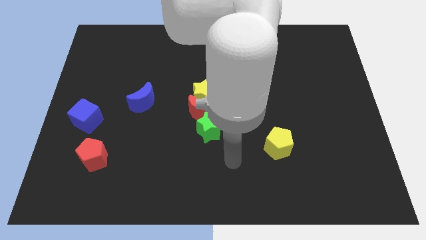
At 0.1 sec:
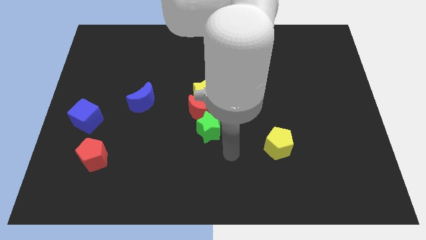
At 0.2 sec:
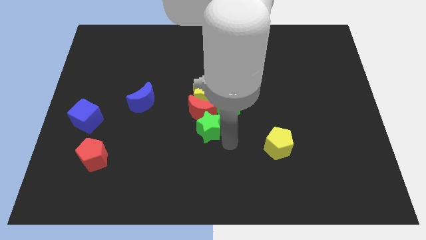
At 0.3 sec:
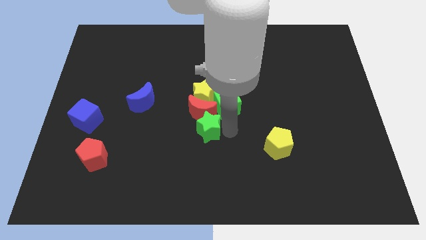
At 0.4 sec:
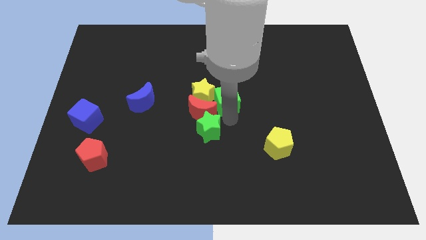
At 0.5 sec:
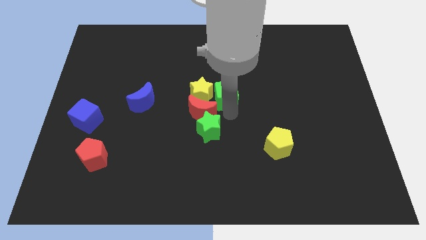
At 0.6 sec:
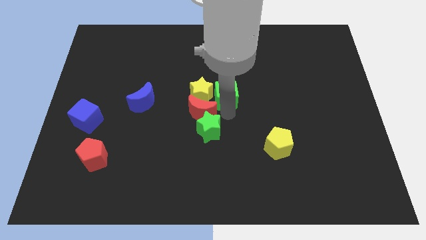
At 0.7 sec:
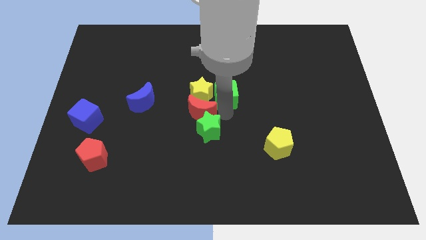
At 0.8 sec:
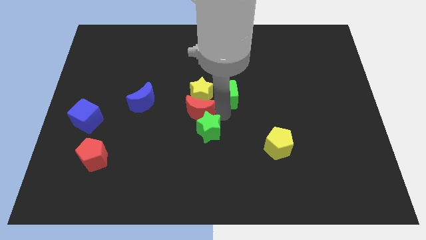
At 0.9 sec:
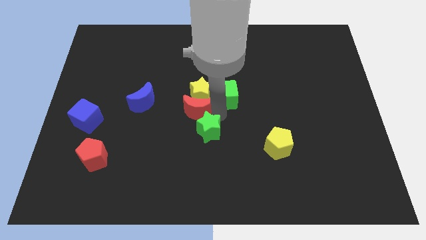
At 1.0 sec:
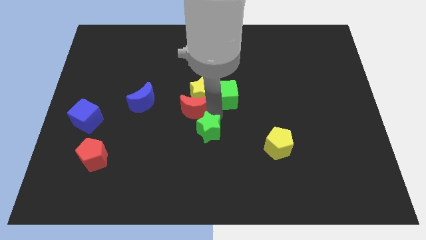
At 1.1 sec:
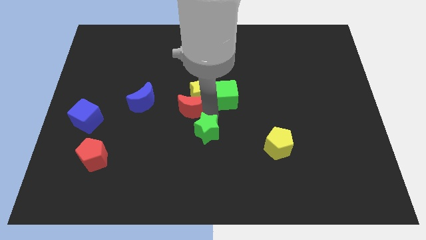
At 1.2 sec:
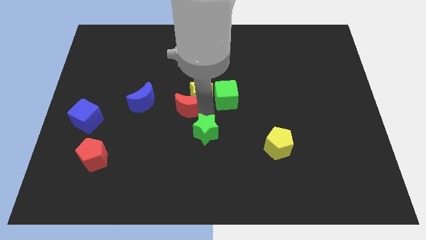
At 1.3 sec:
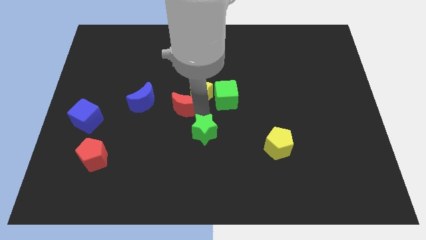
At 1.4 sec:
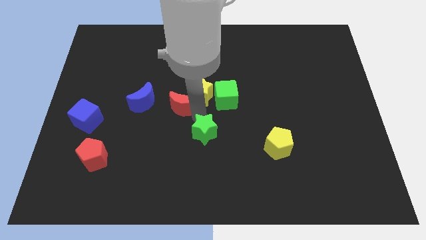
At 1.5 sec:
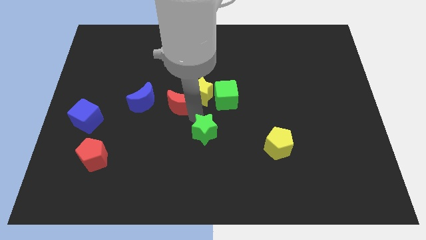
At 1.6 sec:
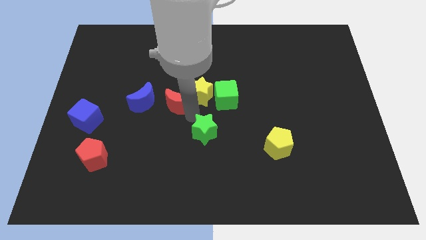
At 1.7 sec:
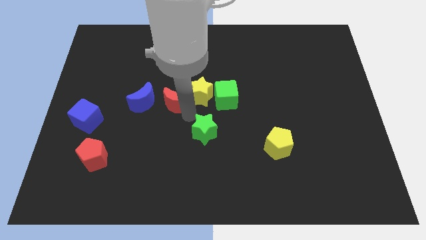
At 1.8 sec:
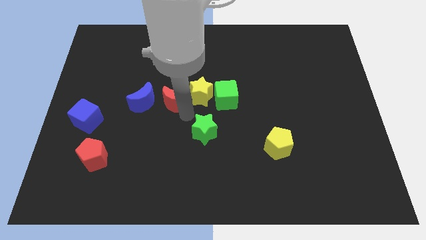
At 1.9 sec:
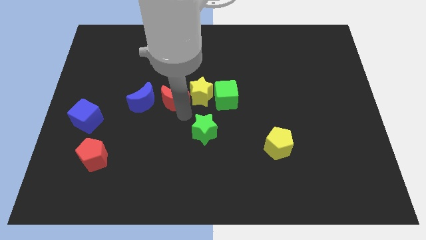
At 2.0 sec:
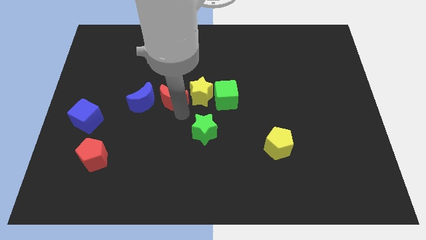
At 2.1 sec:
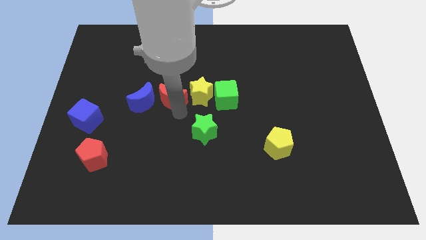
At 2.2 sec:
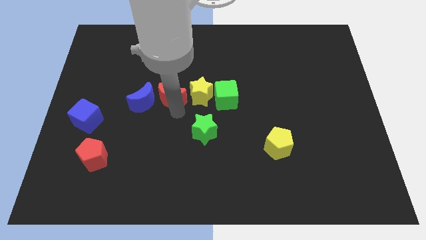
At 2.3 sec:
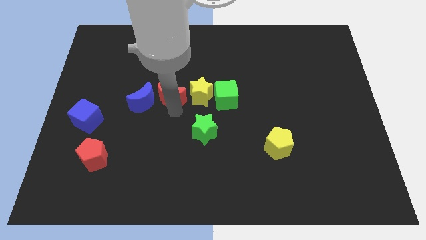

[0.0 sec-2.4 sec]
separate the red moon from the group

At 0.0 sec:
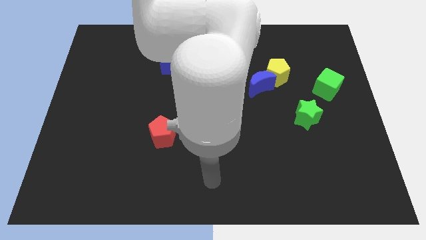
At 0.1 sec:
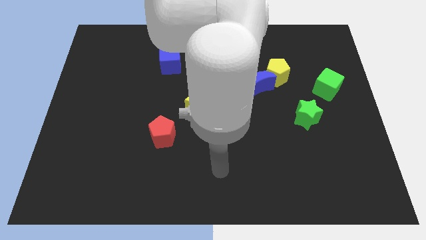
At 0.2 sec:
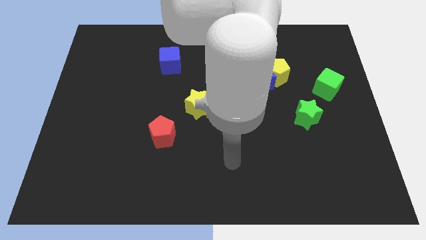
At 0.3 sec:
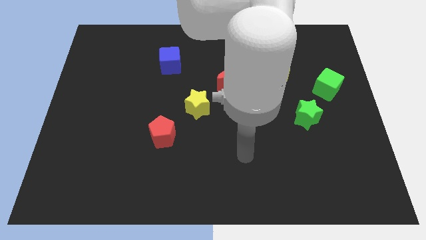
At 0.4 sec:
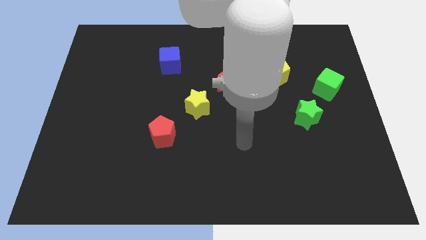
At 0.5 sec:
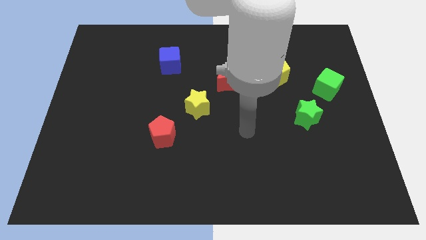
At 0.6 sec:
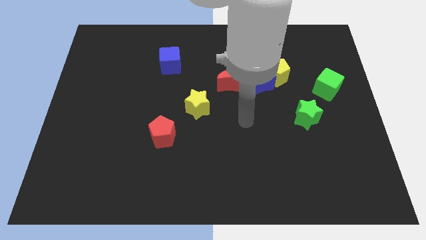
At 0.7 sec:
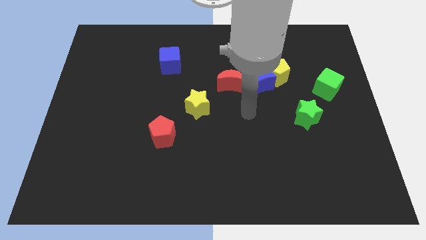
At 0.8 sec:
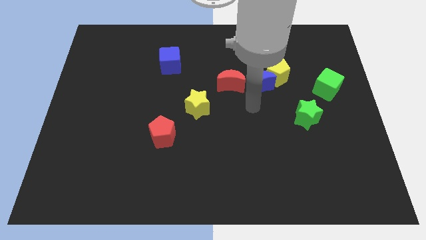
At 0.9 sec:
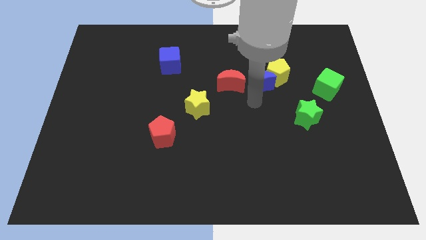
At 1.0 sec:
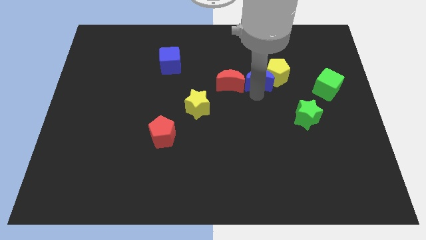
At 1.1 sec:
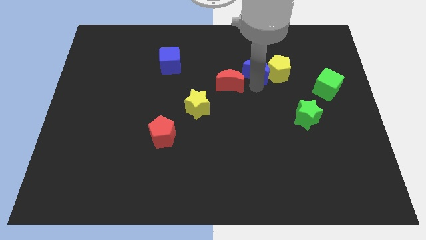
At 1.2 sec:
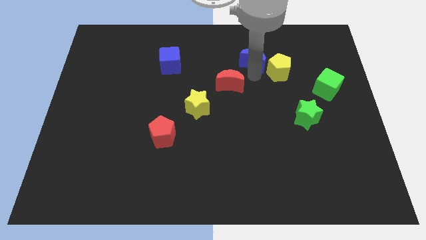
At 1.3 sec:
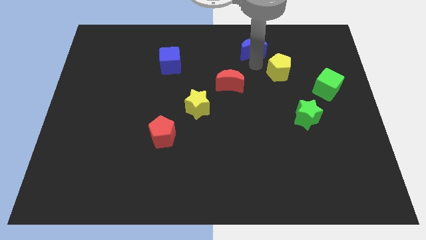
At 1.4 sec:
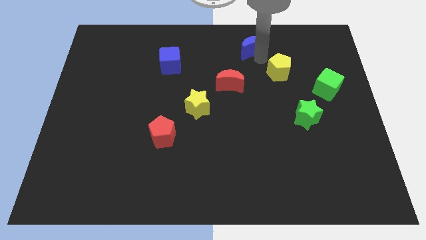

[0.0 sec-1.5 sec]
move the yellow pentagon away from the blue moon

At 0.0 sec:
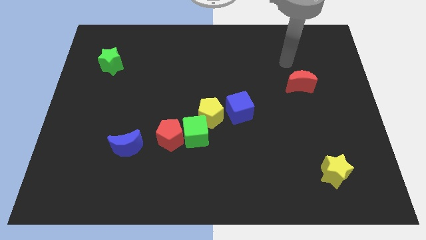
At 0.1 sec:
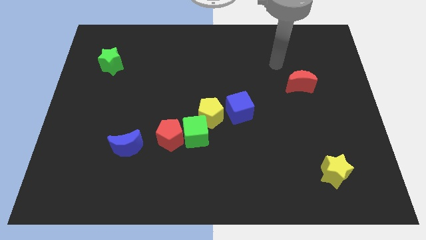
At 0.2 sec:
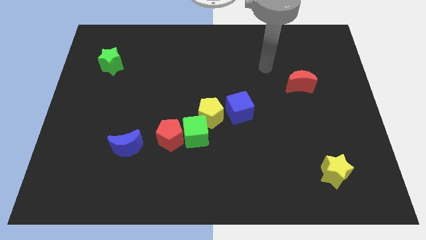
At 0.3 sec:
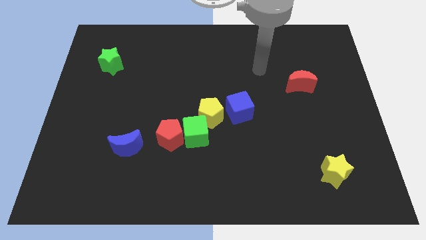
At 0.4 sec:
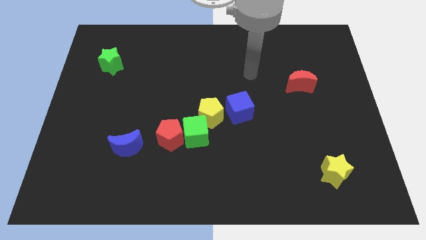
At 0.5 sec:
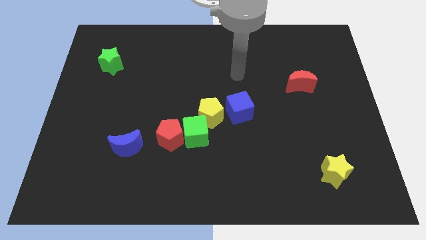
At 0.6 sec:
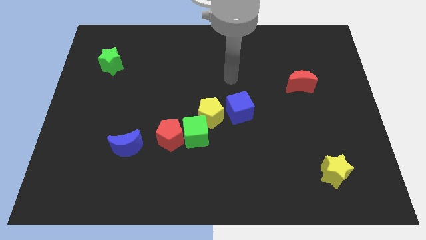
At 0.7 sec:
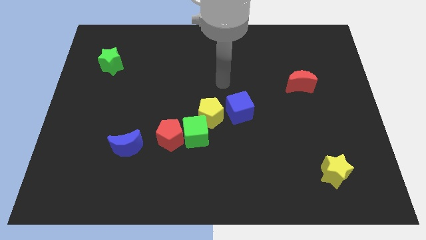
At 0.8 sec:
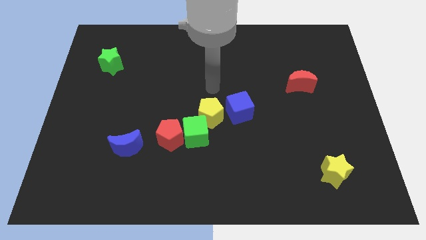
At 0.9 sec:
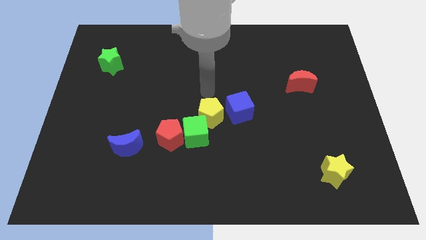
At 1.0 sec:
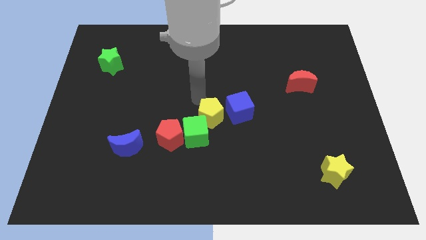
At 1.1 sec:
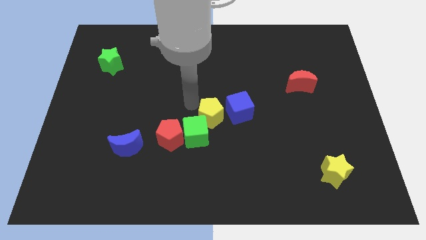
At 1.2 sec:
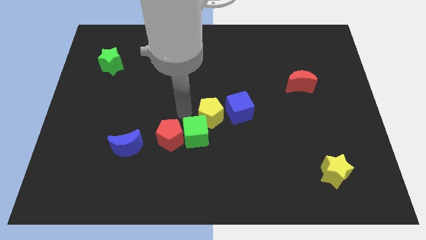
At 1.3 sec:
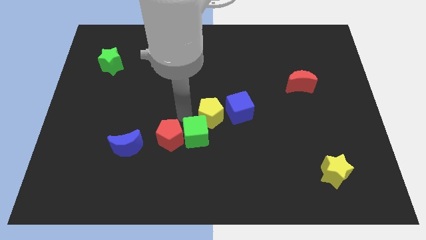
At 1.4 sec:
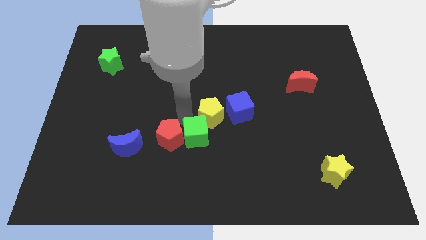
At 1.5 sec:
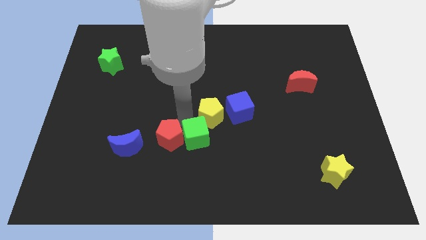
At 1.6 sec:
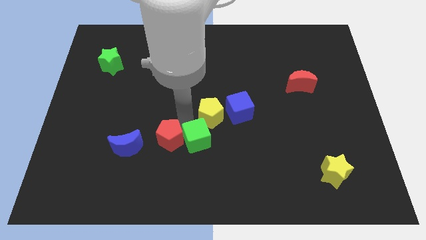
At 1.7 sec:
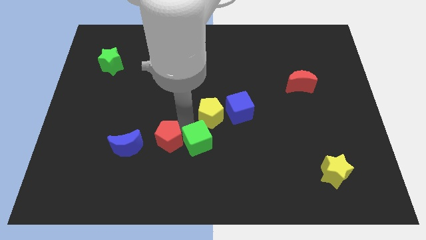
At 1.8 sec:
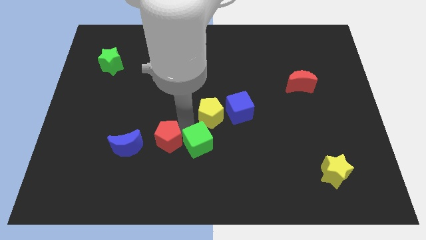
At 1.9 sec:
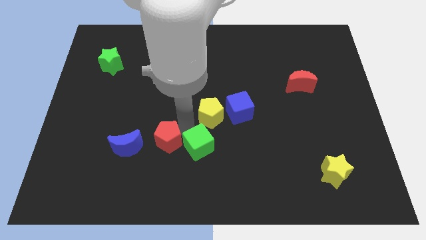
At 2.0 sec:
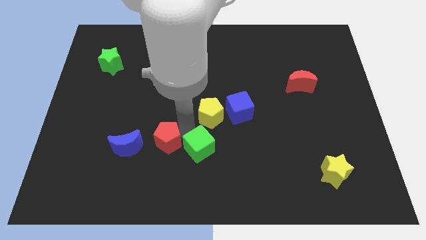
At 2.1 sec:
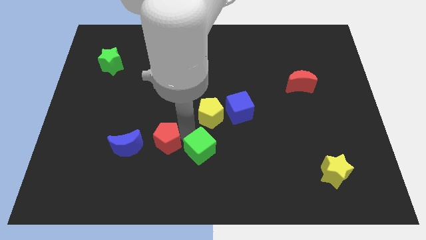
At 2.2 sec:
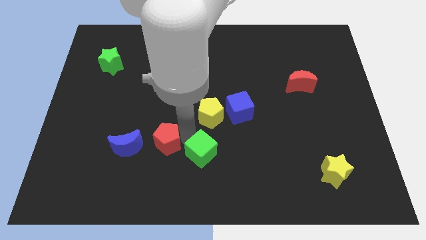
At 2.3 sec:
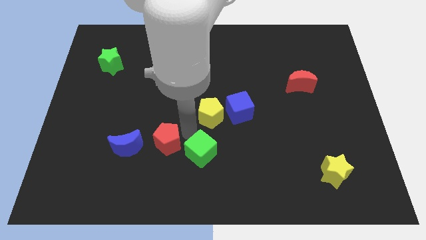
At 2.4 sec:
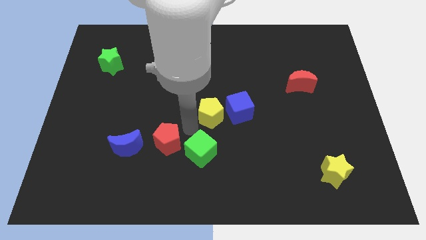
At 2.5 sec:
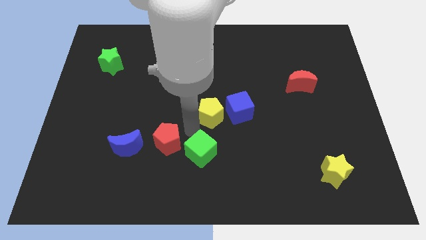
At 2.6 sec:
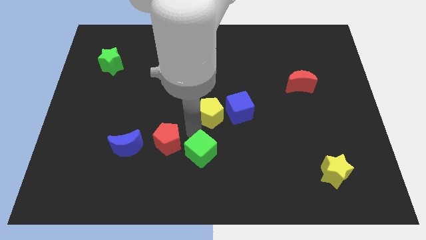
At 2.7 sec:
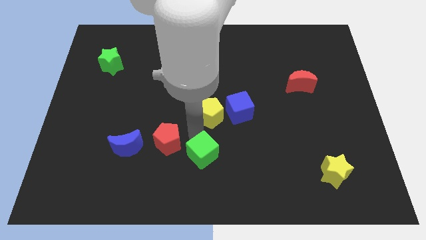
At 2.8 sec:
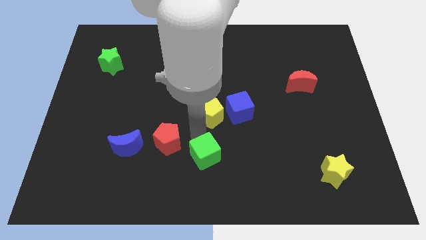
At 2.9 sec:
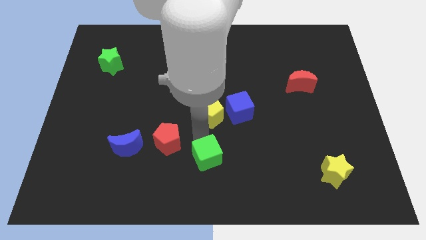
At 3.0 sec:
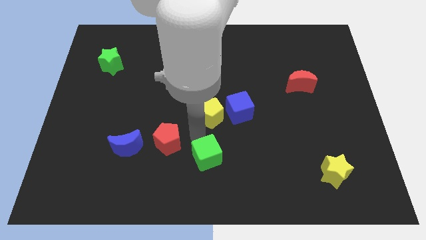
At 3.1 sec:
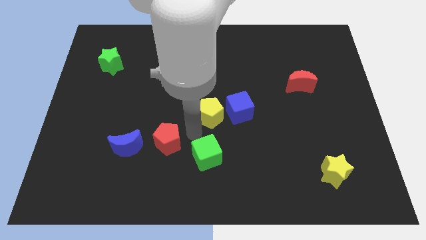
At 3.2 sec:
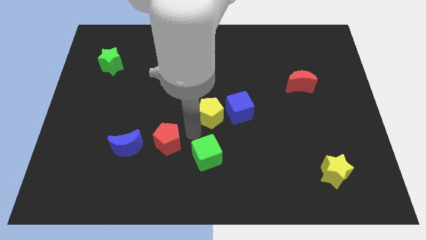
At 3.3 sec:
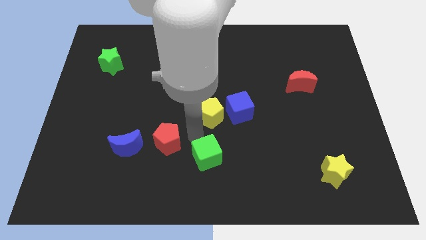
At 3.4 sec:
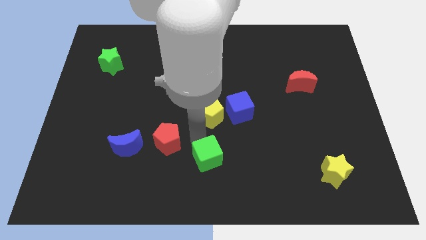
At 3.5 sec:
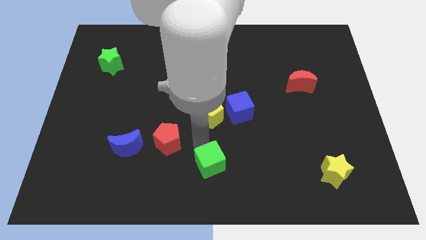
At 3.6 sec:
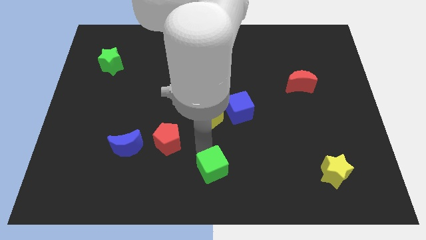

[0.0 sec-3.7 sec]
move the green cube away from the red pentagon and yellow pentagon

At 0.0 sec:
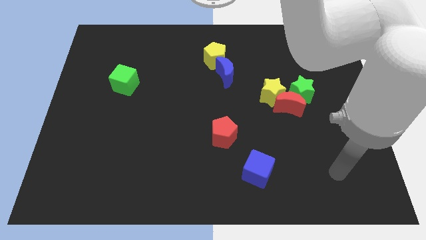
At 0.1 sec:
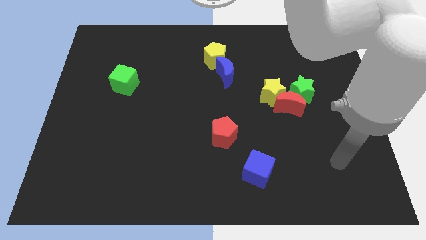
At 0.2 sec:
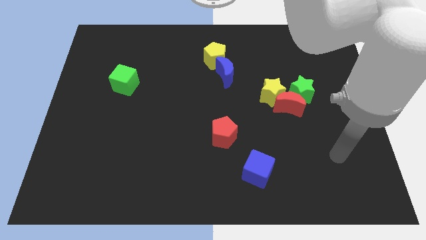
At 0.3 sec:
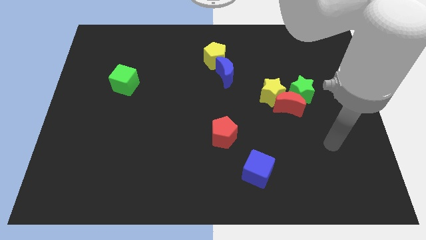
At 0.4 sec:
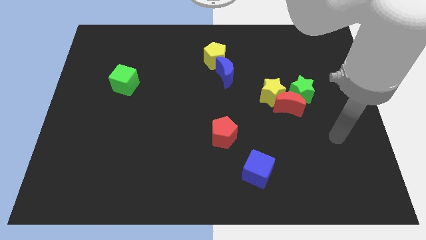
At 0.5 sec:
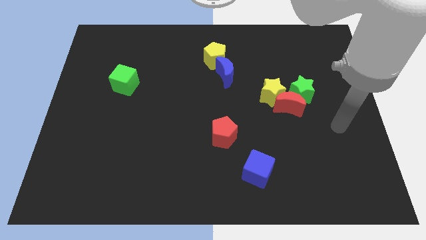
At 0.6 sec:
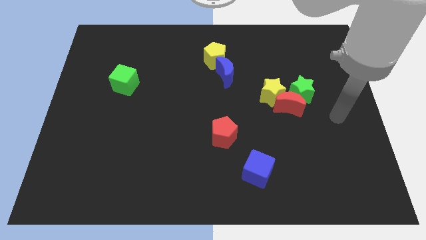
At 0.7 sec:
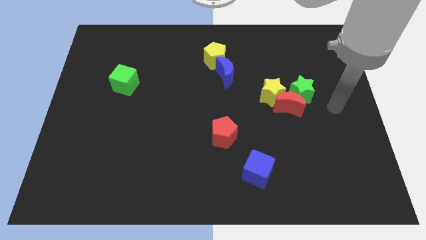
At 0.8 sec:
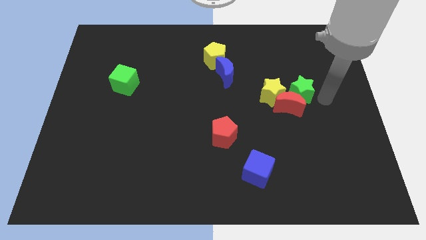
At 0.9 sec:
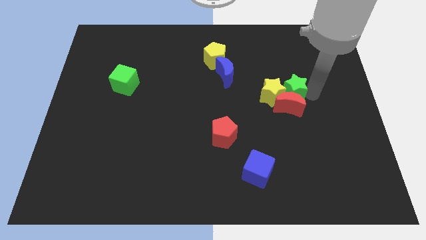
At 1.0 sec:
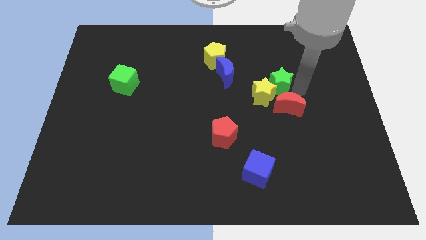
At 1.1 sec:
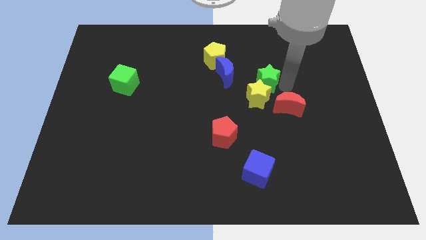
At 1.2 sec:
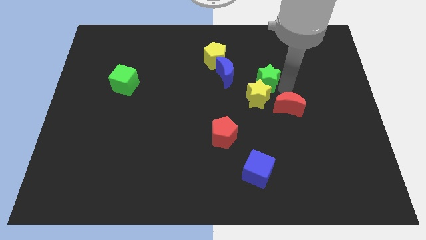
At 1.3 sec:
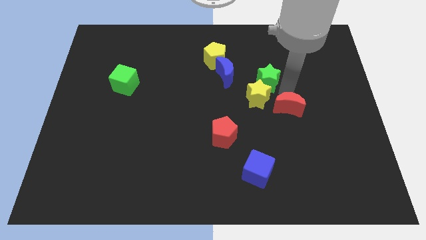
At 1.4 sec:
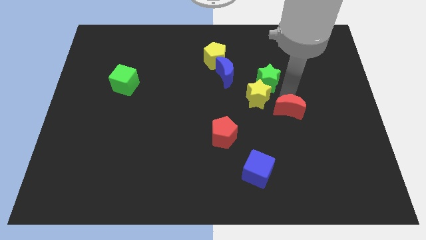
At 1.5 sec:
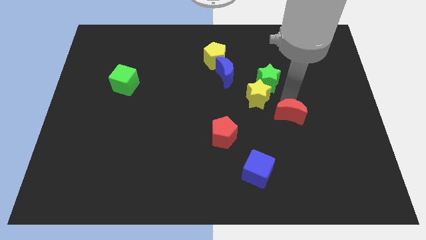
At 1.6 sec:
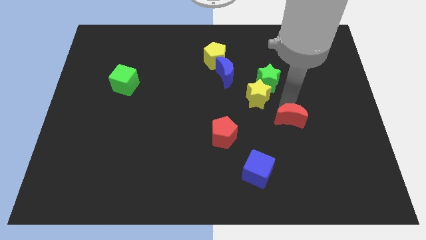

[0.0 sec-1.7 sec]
separate the red moon from the yellow star and green star
